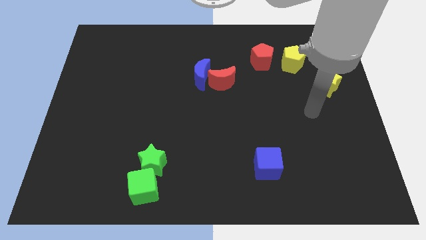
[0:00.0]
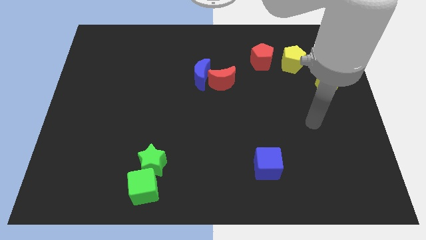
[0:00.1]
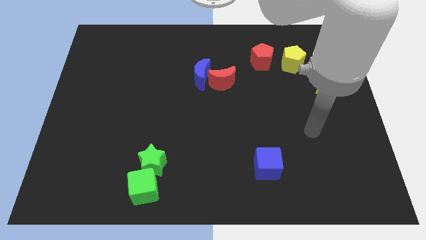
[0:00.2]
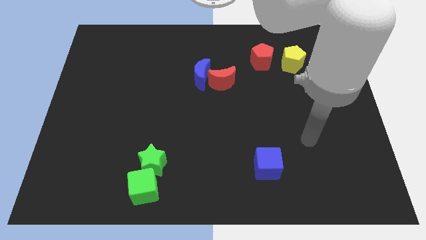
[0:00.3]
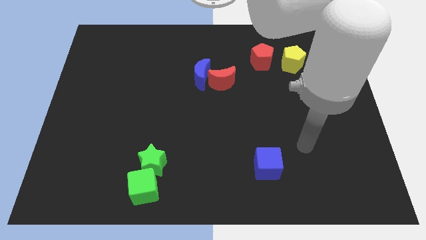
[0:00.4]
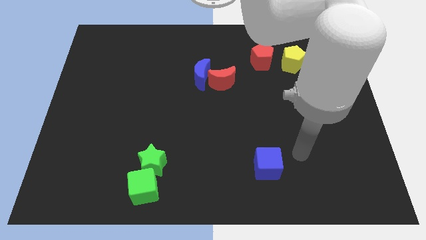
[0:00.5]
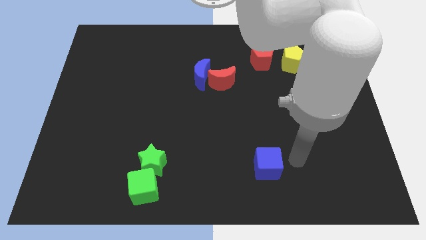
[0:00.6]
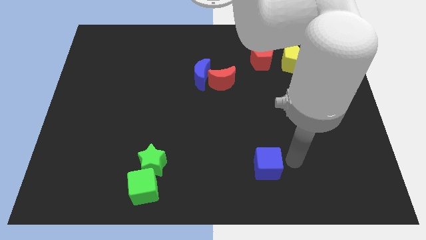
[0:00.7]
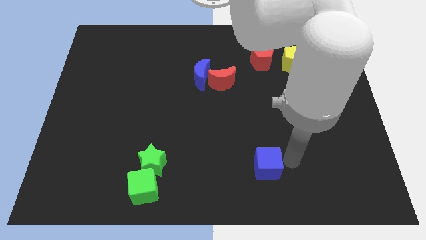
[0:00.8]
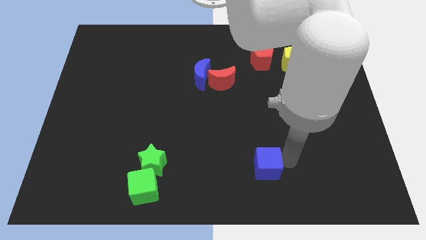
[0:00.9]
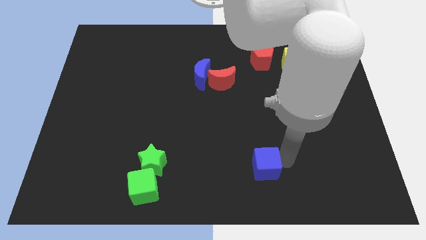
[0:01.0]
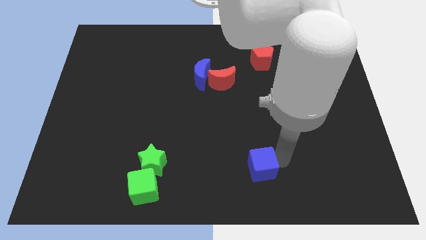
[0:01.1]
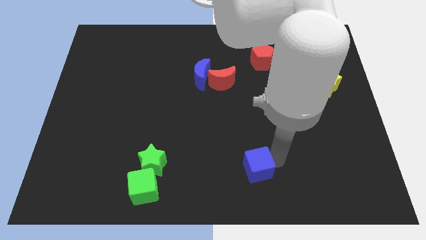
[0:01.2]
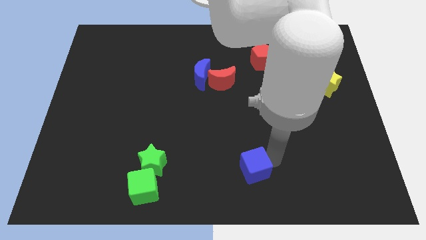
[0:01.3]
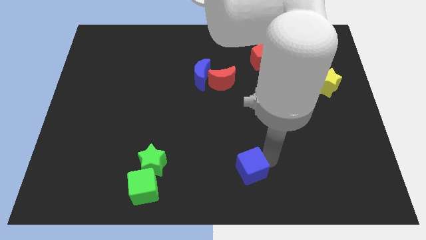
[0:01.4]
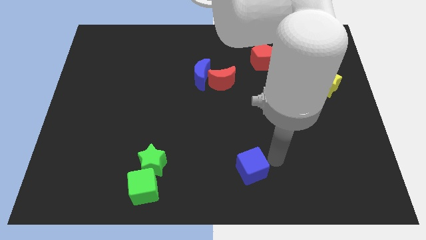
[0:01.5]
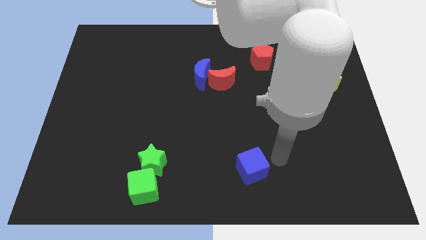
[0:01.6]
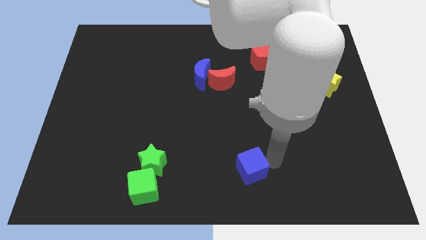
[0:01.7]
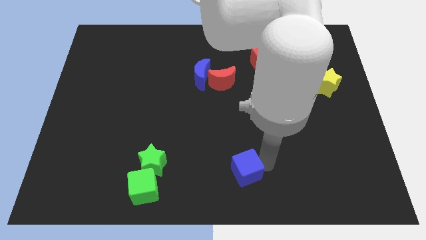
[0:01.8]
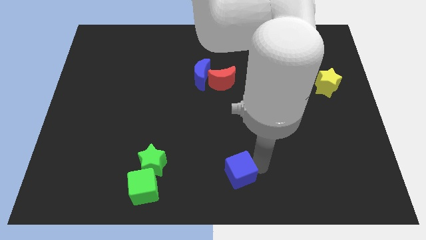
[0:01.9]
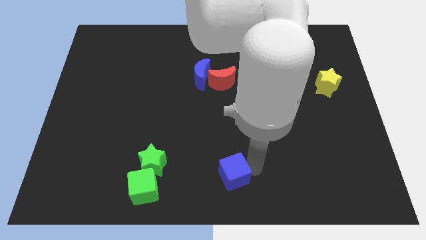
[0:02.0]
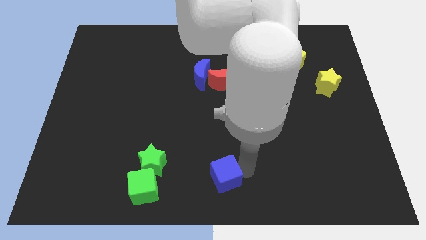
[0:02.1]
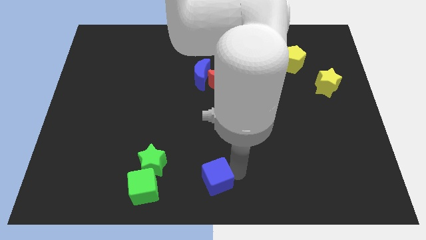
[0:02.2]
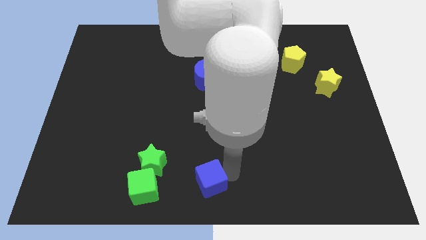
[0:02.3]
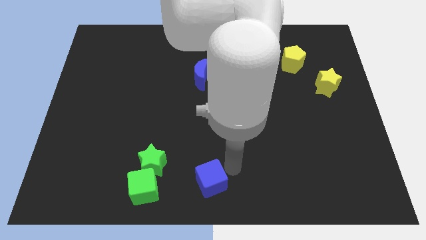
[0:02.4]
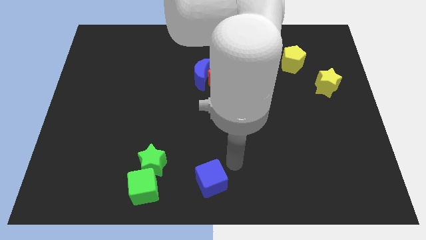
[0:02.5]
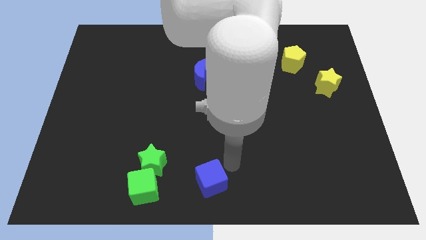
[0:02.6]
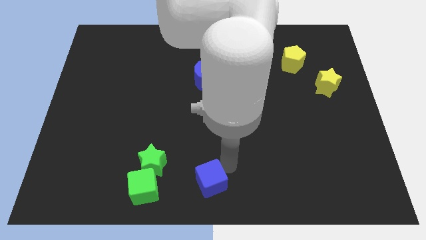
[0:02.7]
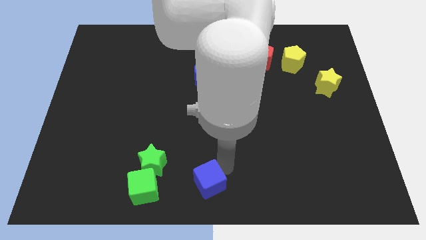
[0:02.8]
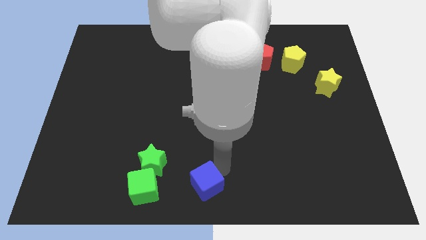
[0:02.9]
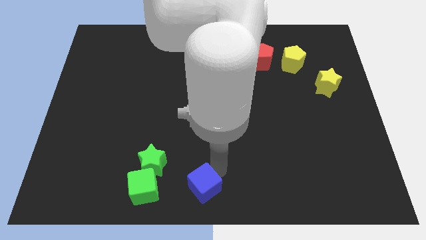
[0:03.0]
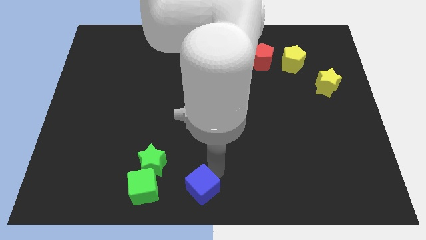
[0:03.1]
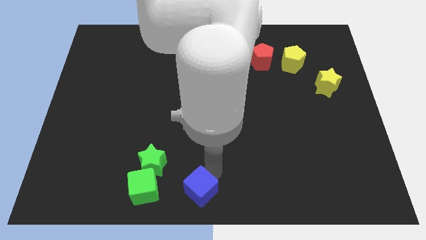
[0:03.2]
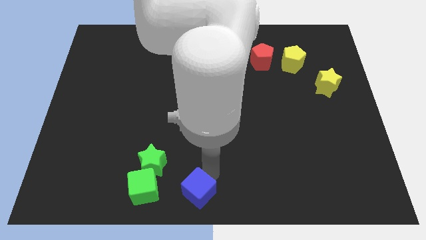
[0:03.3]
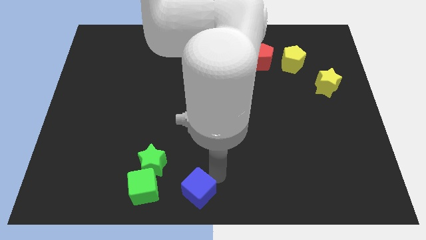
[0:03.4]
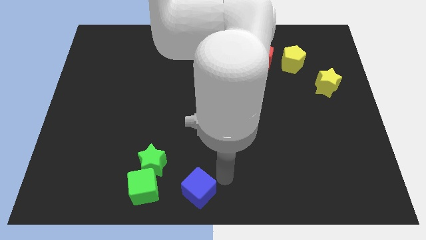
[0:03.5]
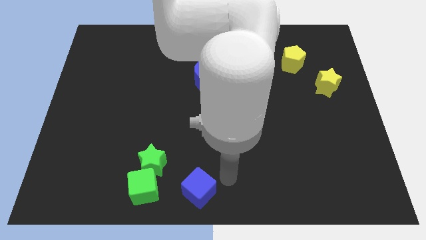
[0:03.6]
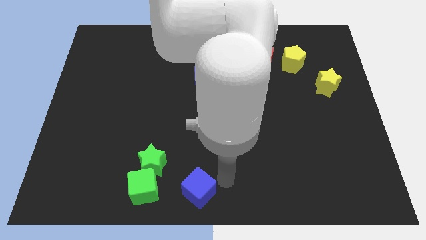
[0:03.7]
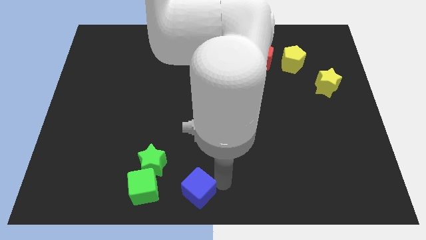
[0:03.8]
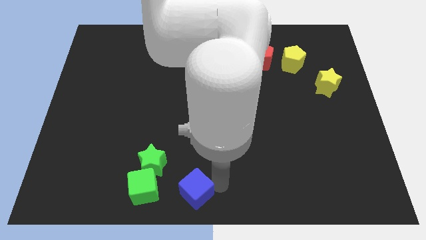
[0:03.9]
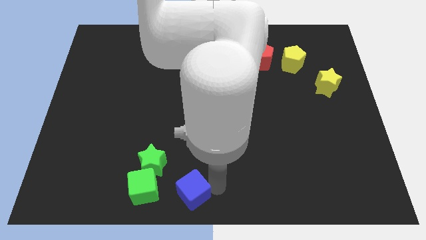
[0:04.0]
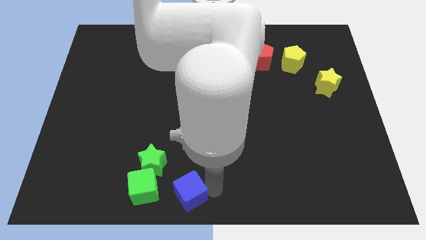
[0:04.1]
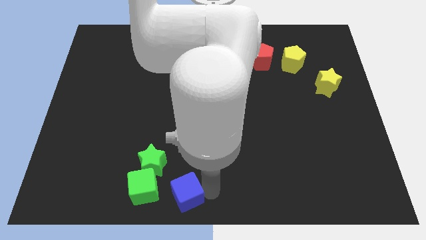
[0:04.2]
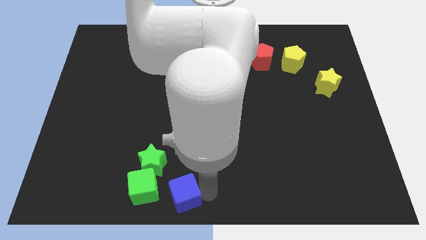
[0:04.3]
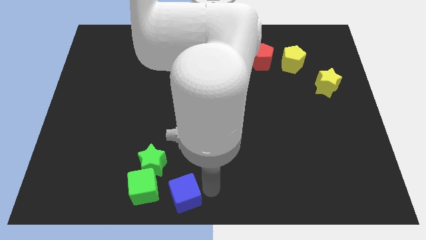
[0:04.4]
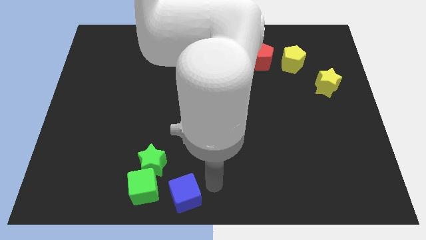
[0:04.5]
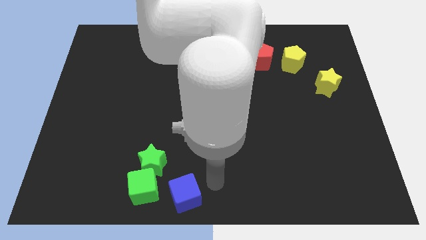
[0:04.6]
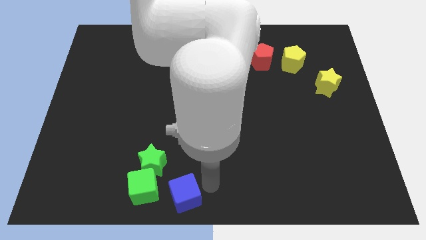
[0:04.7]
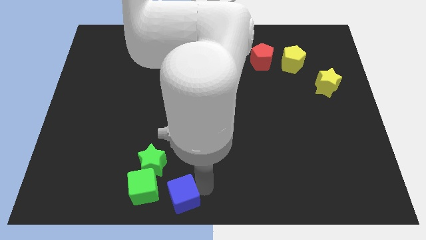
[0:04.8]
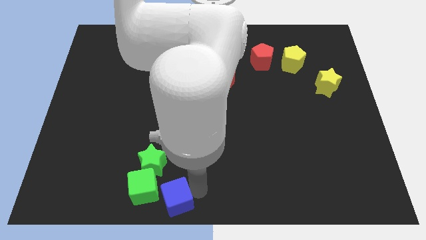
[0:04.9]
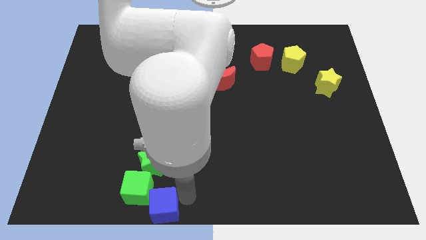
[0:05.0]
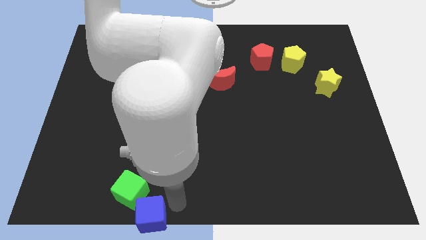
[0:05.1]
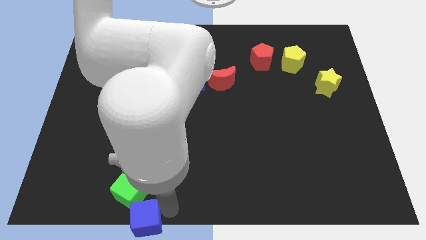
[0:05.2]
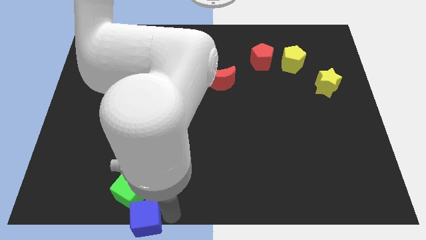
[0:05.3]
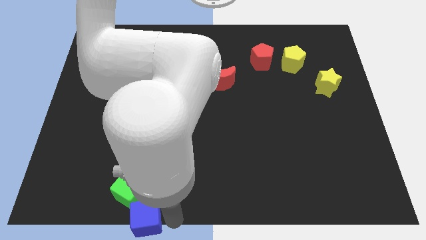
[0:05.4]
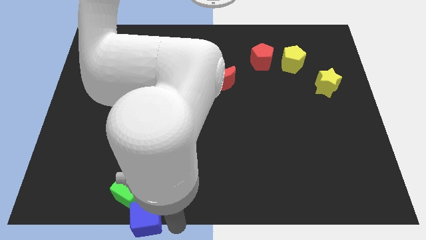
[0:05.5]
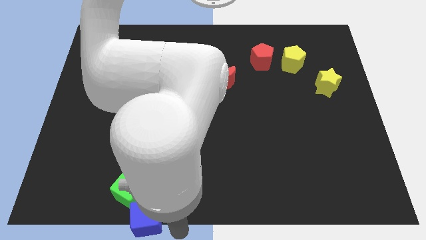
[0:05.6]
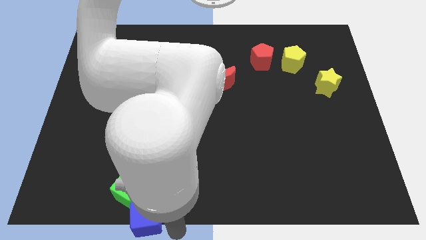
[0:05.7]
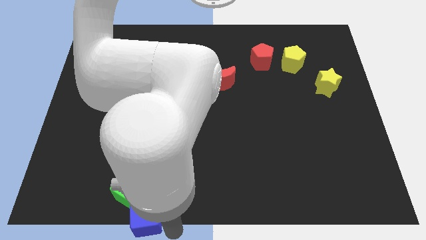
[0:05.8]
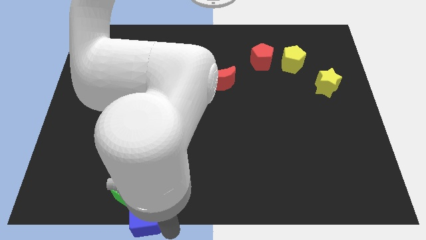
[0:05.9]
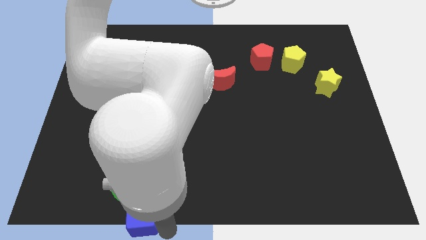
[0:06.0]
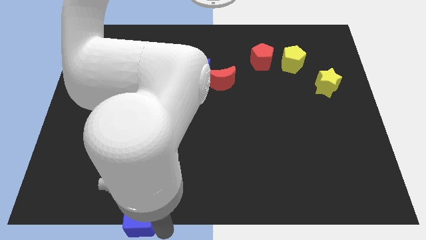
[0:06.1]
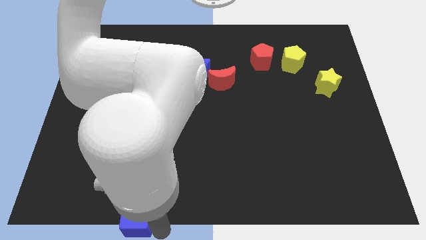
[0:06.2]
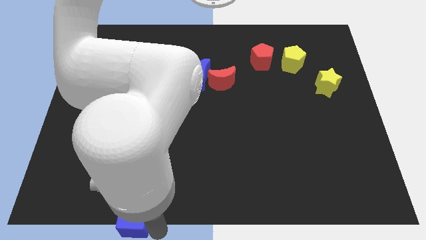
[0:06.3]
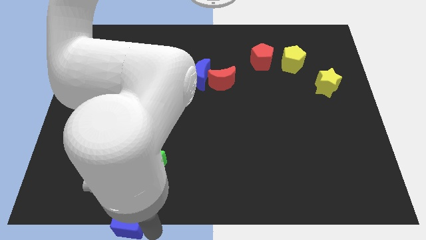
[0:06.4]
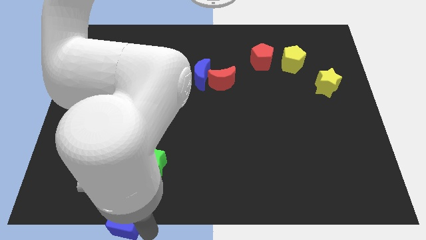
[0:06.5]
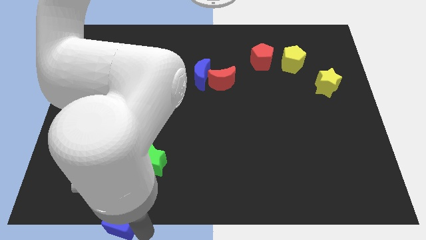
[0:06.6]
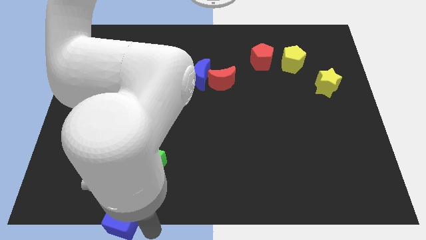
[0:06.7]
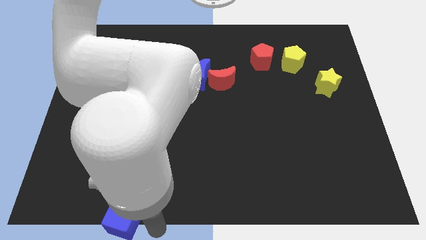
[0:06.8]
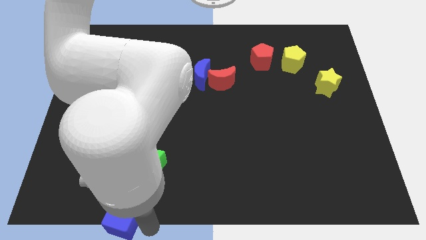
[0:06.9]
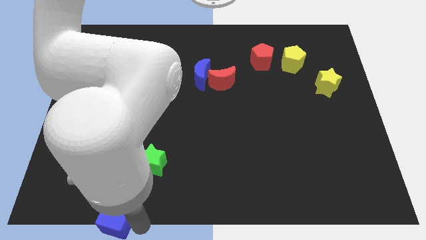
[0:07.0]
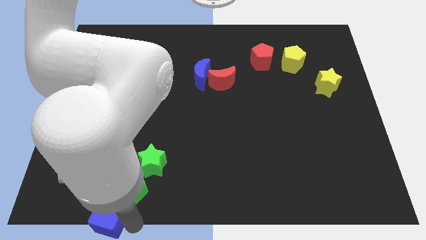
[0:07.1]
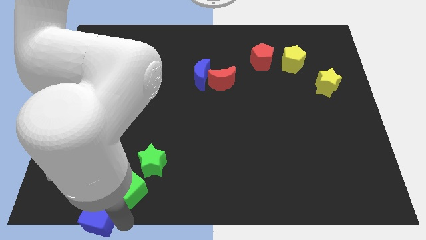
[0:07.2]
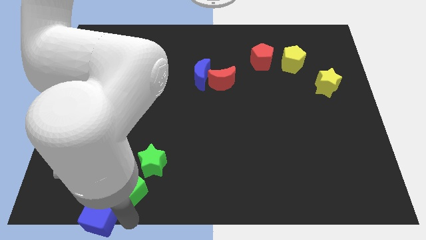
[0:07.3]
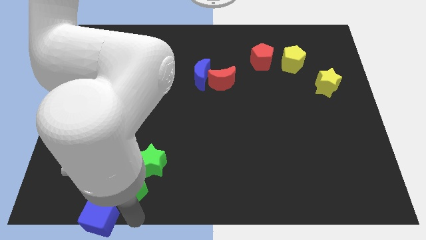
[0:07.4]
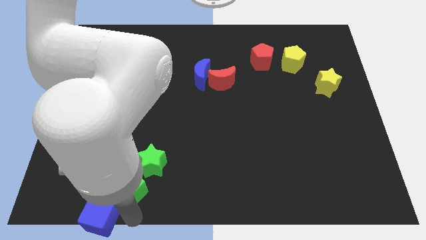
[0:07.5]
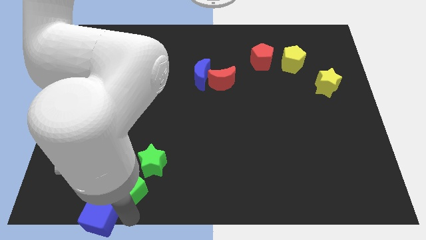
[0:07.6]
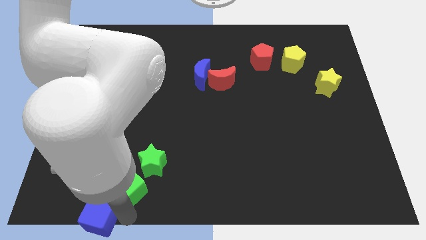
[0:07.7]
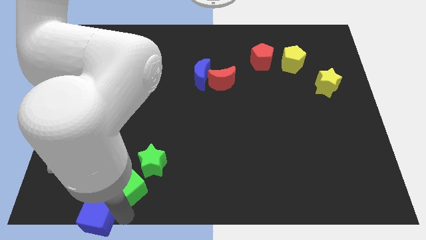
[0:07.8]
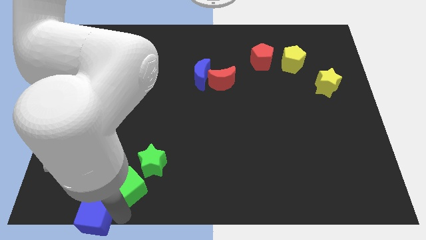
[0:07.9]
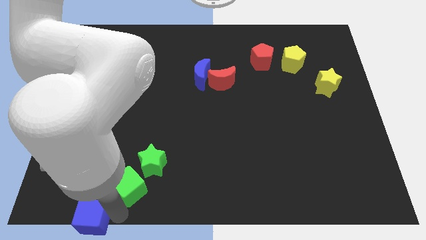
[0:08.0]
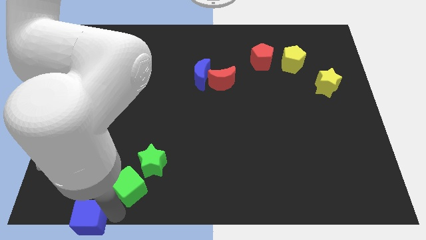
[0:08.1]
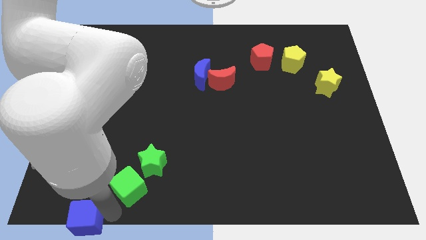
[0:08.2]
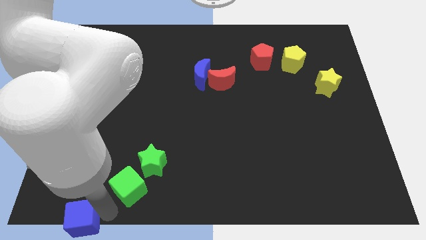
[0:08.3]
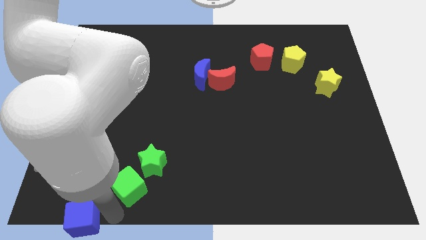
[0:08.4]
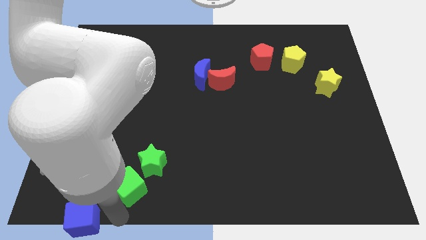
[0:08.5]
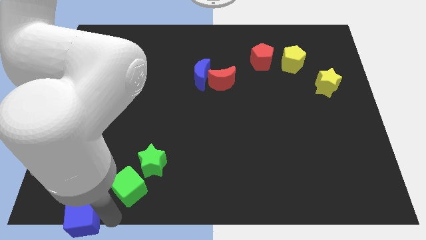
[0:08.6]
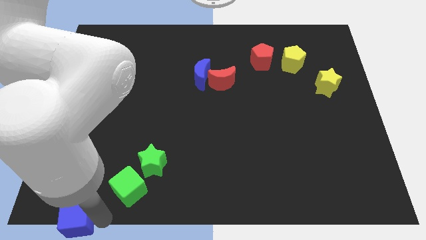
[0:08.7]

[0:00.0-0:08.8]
put the blue cube to the bottom left of the board
